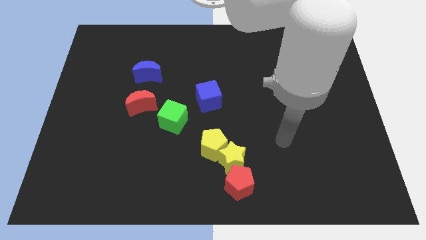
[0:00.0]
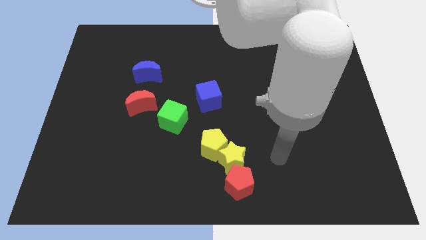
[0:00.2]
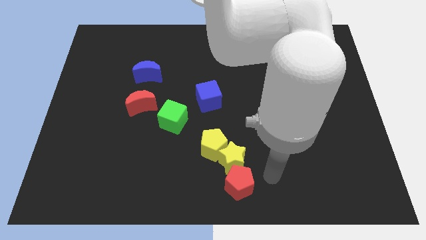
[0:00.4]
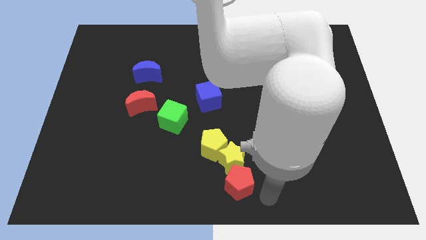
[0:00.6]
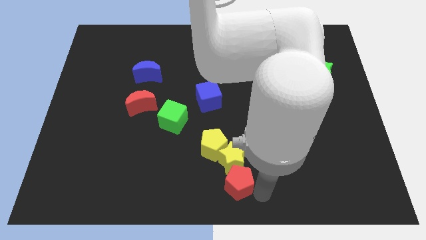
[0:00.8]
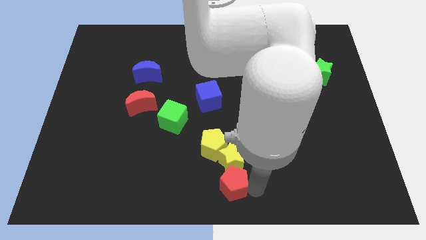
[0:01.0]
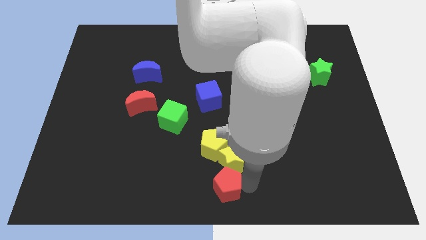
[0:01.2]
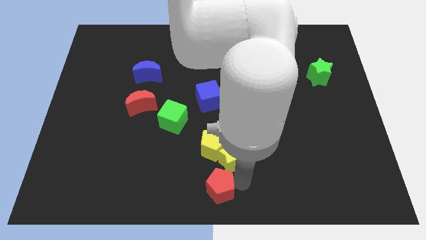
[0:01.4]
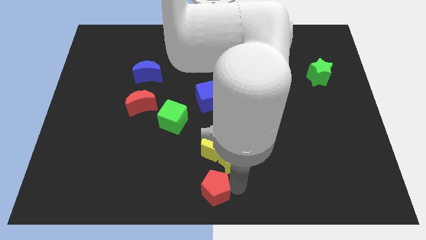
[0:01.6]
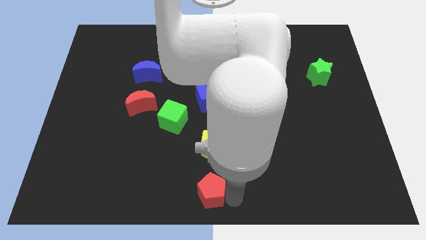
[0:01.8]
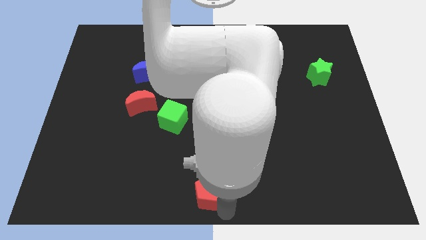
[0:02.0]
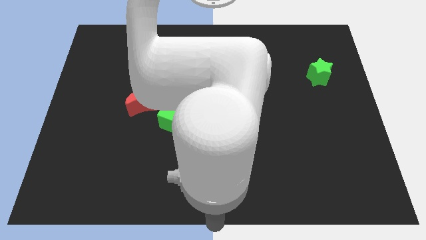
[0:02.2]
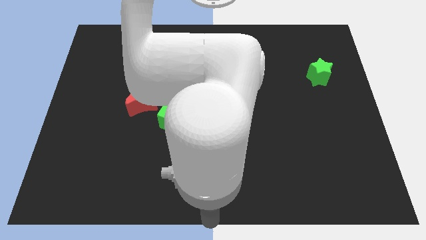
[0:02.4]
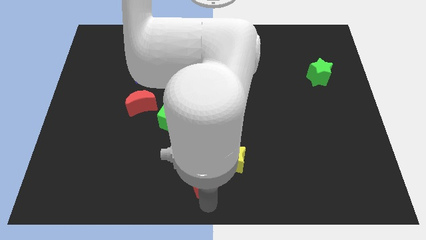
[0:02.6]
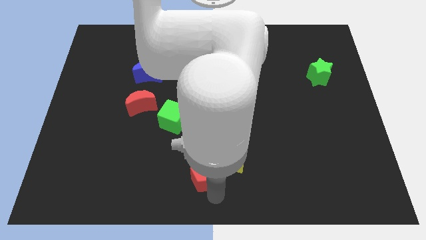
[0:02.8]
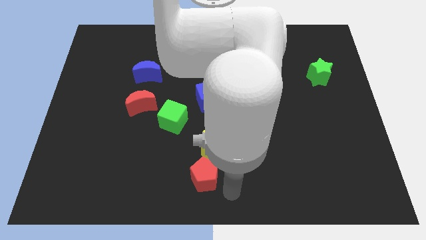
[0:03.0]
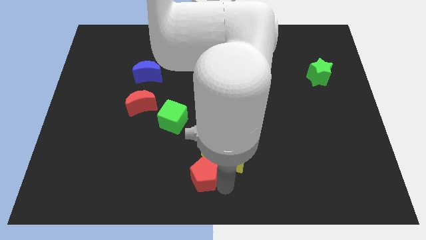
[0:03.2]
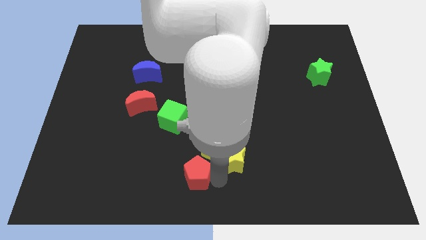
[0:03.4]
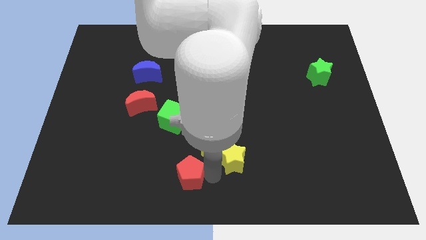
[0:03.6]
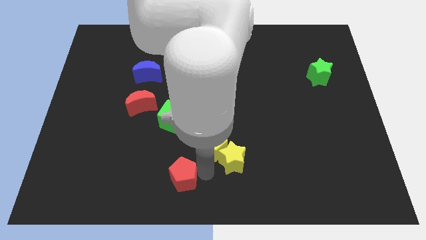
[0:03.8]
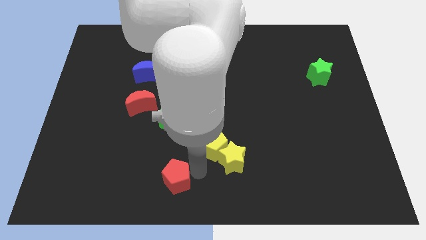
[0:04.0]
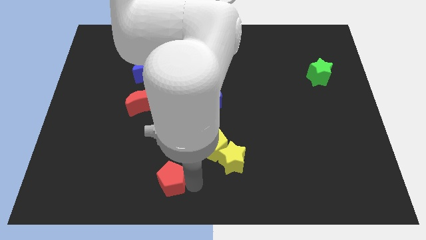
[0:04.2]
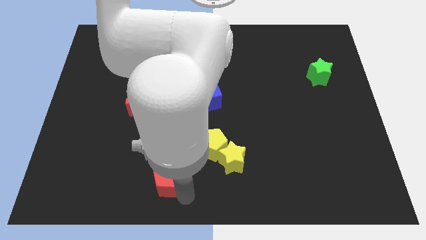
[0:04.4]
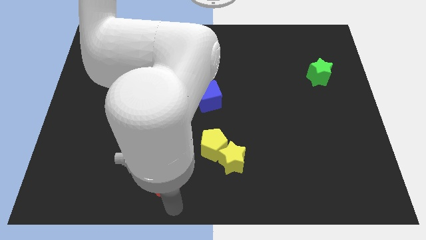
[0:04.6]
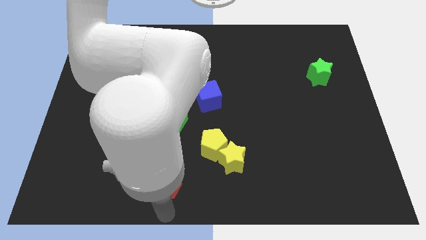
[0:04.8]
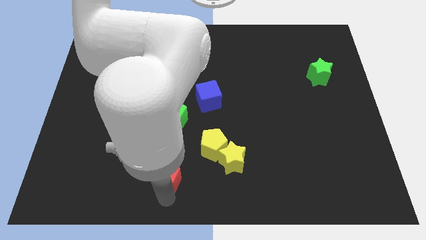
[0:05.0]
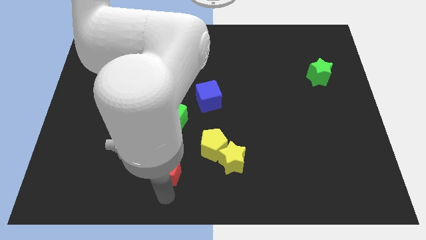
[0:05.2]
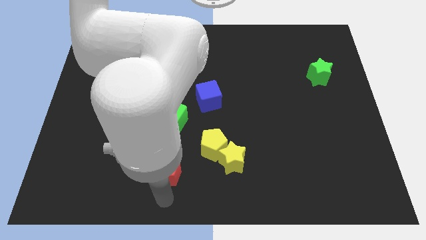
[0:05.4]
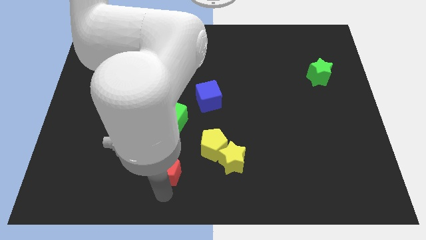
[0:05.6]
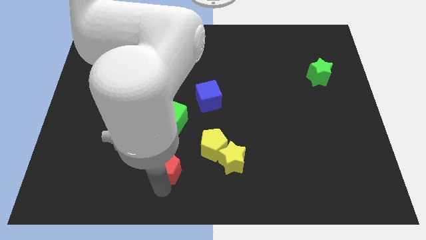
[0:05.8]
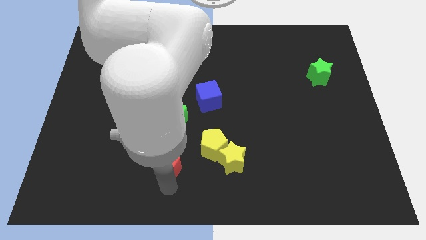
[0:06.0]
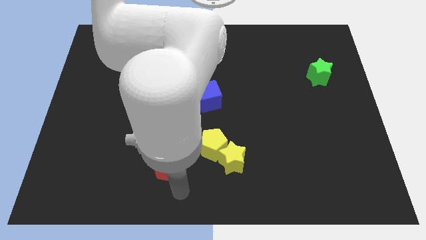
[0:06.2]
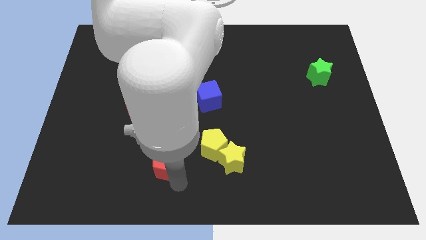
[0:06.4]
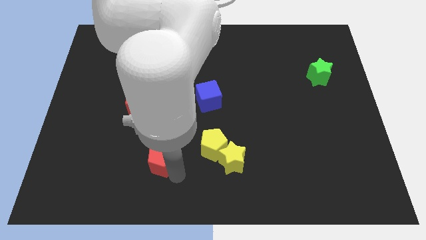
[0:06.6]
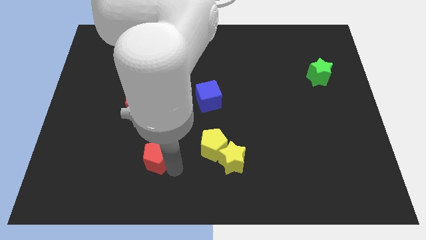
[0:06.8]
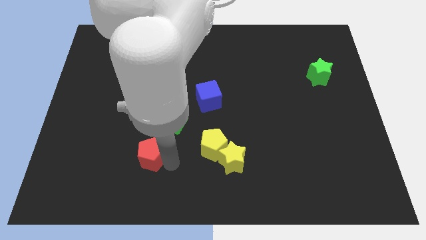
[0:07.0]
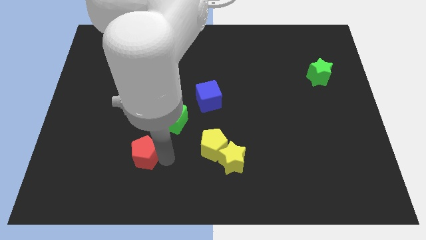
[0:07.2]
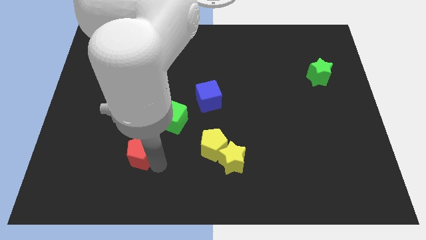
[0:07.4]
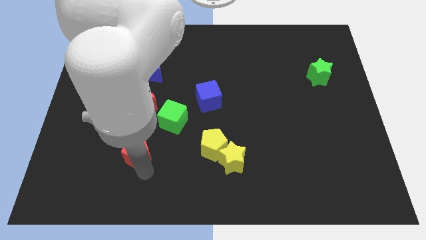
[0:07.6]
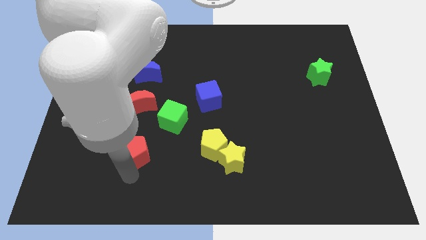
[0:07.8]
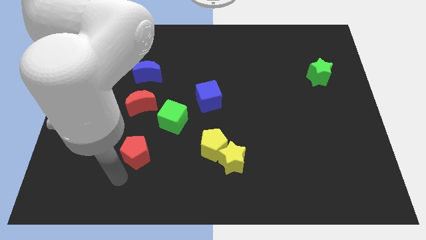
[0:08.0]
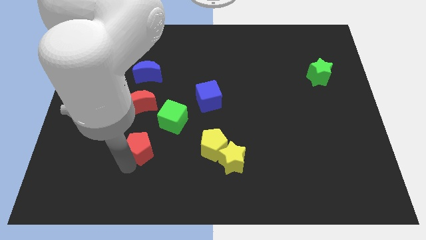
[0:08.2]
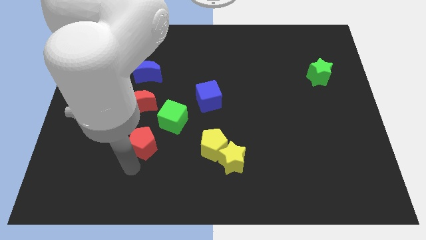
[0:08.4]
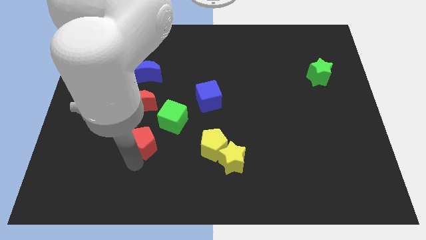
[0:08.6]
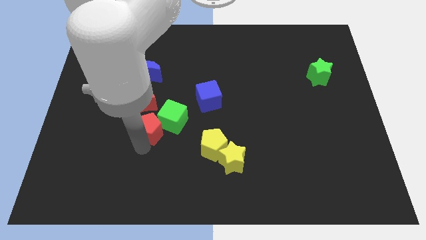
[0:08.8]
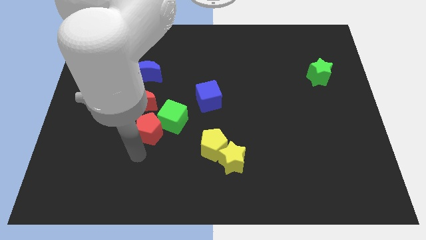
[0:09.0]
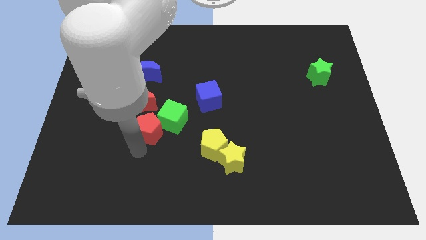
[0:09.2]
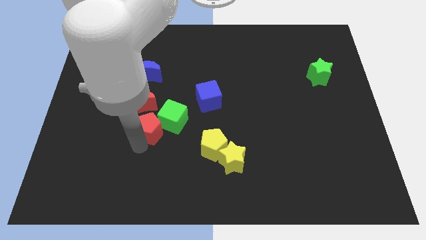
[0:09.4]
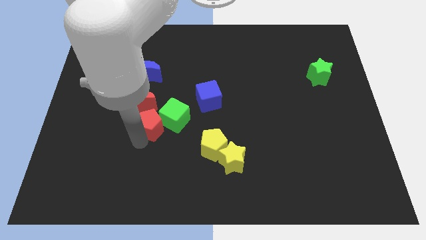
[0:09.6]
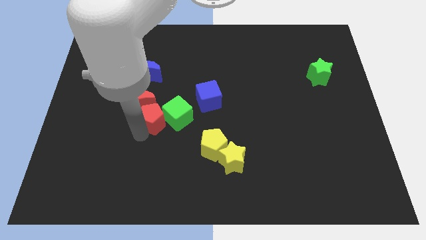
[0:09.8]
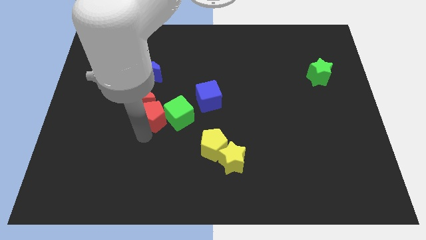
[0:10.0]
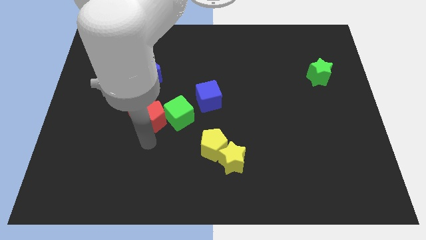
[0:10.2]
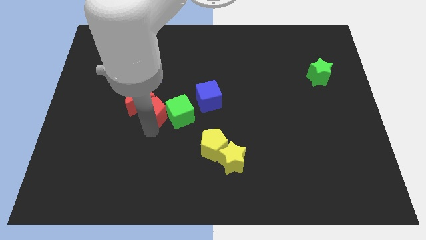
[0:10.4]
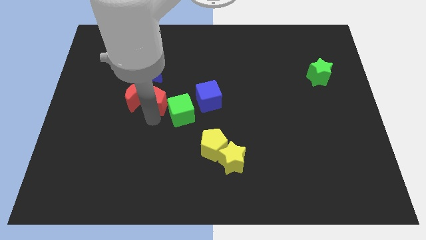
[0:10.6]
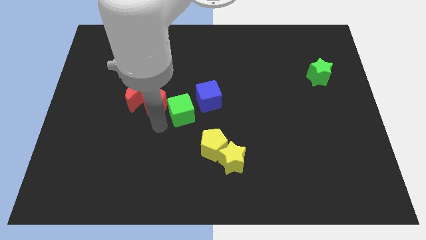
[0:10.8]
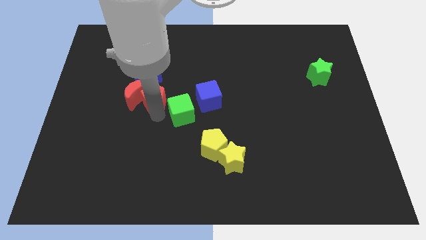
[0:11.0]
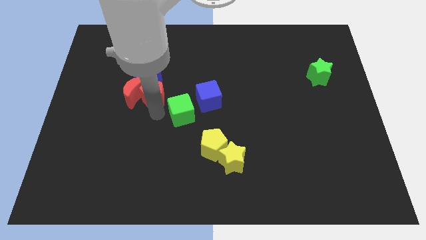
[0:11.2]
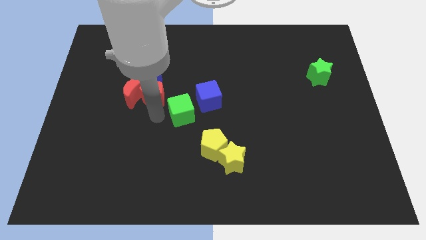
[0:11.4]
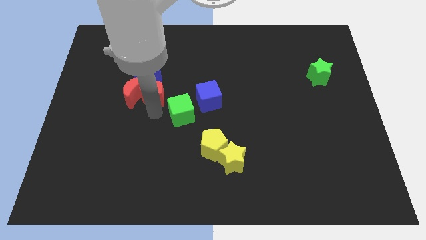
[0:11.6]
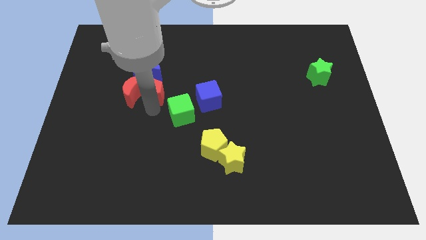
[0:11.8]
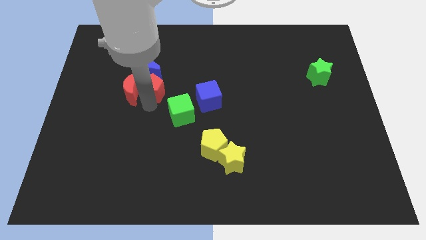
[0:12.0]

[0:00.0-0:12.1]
move the red pentagon to the blue moon

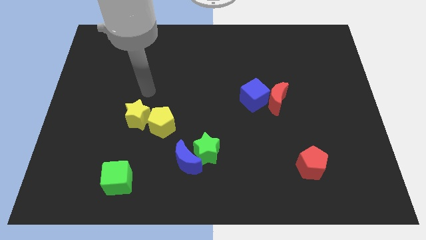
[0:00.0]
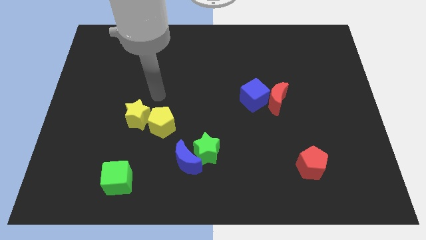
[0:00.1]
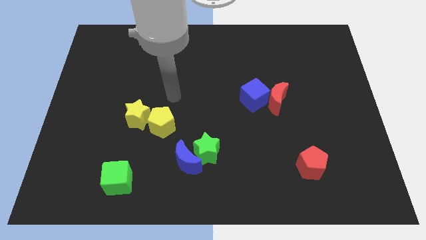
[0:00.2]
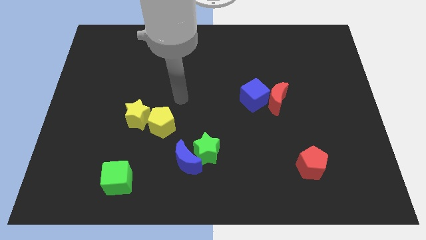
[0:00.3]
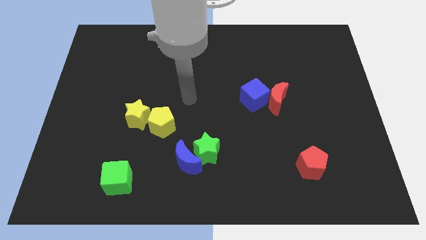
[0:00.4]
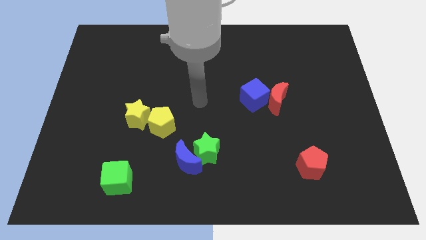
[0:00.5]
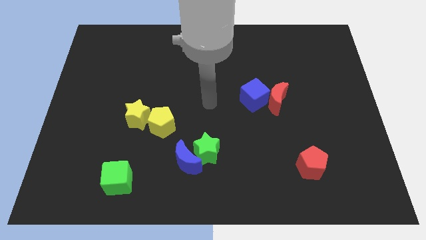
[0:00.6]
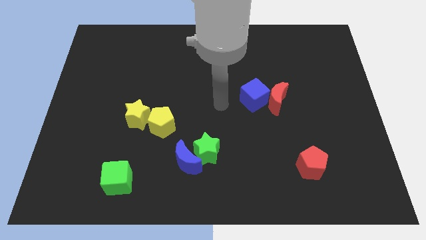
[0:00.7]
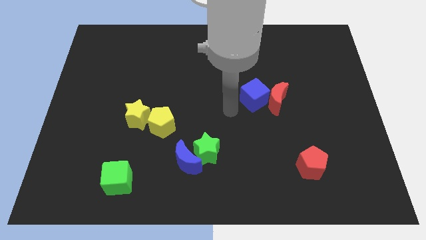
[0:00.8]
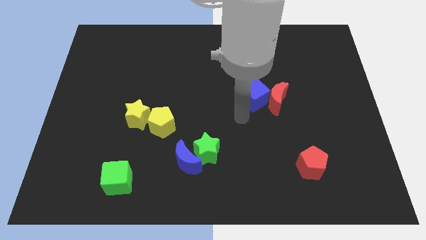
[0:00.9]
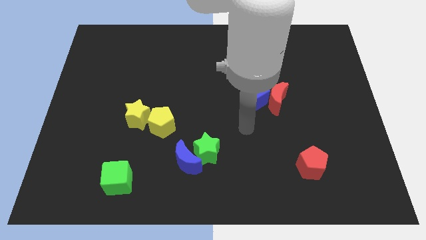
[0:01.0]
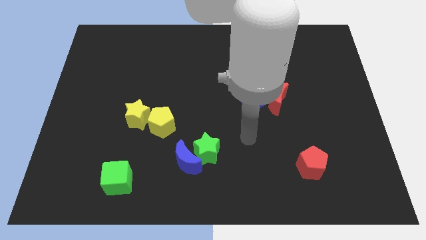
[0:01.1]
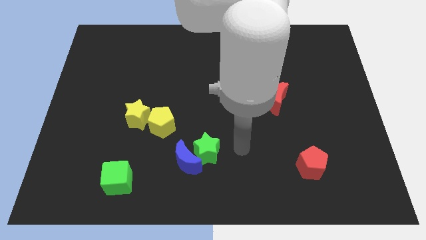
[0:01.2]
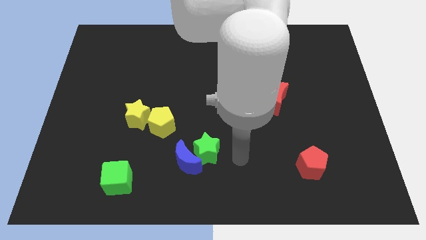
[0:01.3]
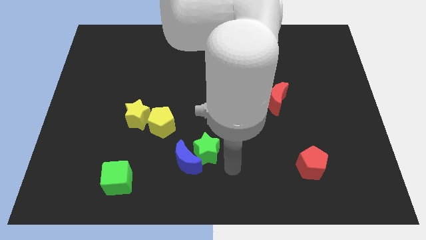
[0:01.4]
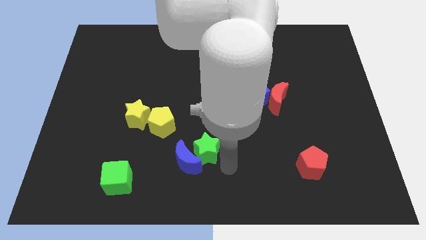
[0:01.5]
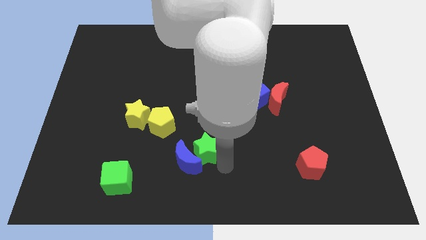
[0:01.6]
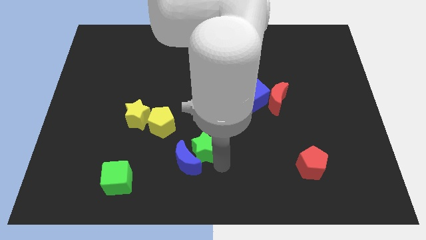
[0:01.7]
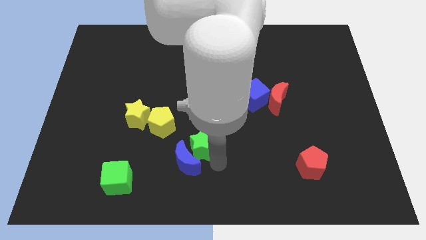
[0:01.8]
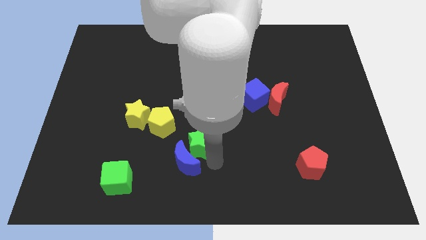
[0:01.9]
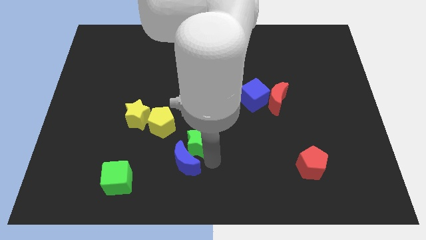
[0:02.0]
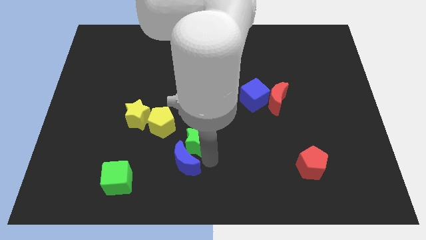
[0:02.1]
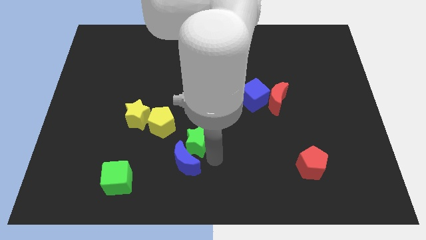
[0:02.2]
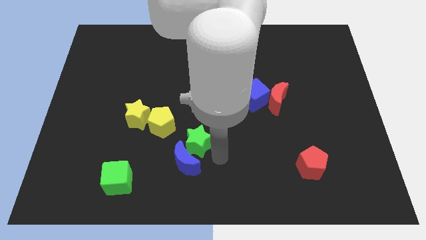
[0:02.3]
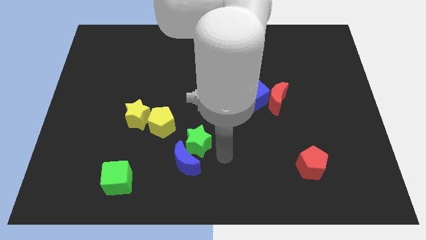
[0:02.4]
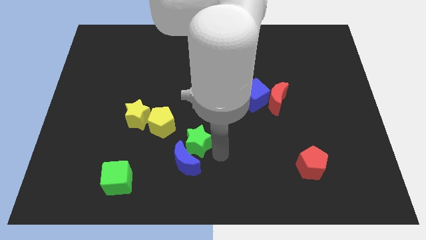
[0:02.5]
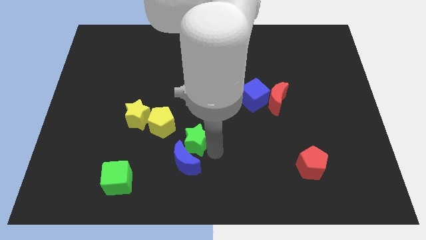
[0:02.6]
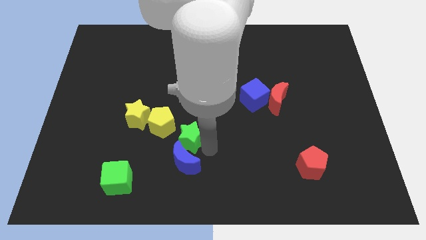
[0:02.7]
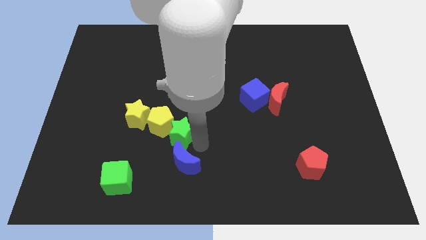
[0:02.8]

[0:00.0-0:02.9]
slide the green star next to the yellow pentagon
